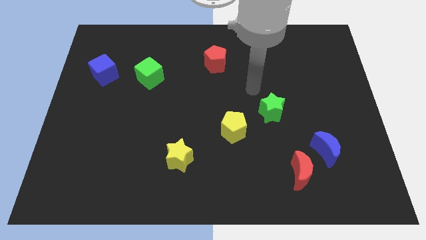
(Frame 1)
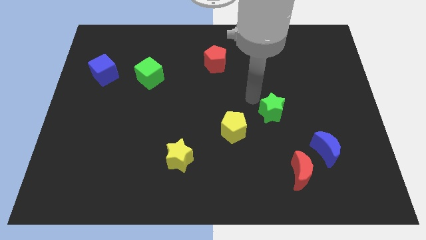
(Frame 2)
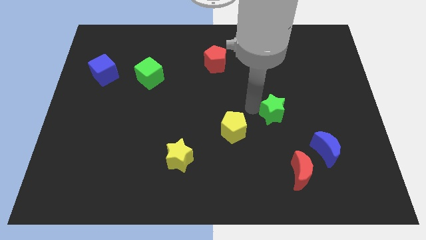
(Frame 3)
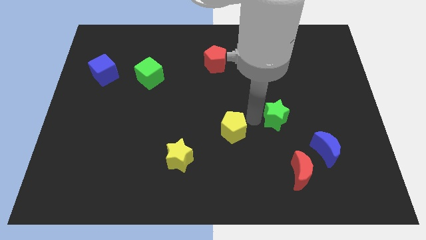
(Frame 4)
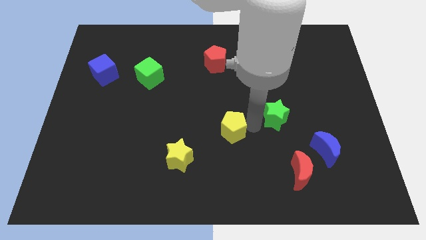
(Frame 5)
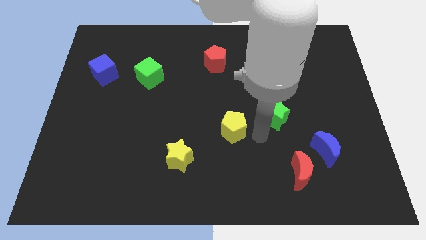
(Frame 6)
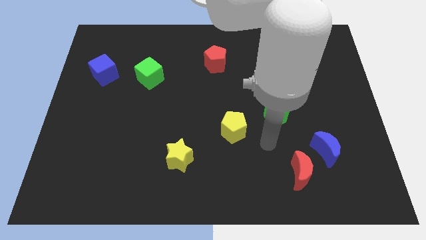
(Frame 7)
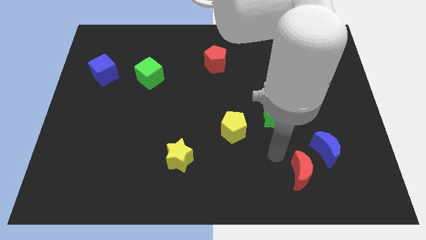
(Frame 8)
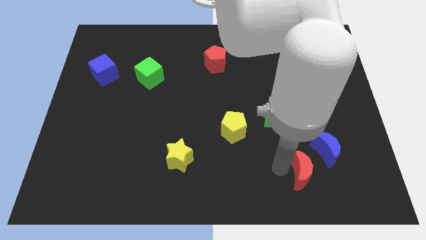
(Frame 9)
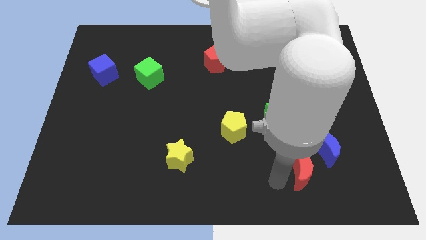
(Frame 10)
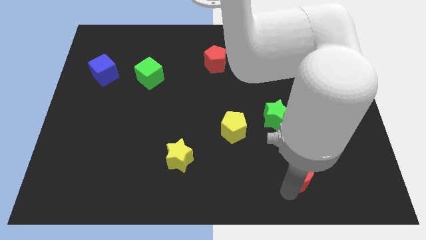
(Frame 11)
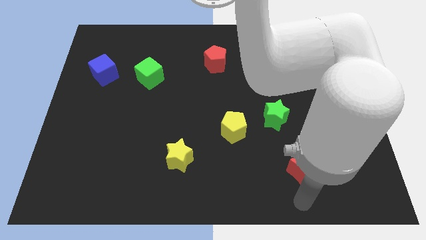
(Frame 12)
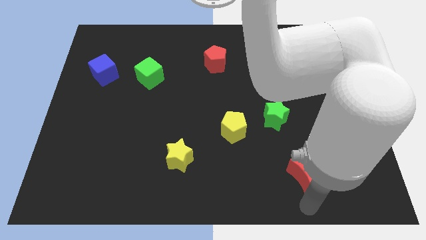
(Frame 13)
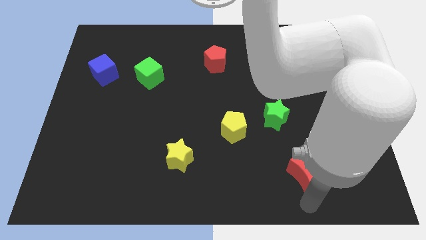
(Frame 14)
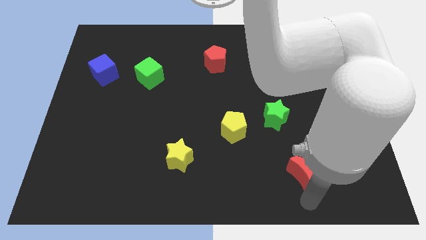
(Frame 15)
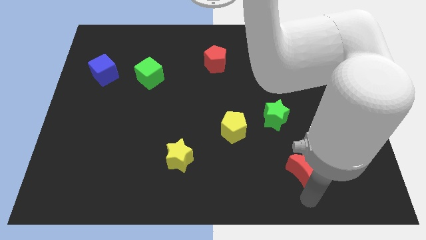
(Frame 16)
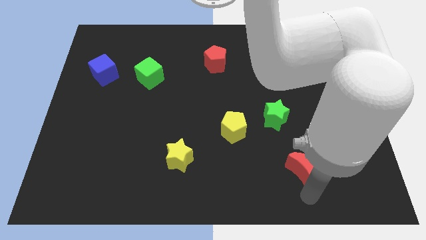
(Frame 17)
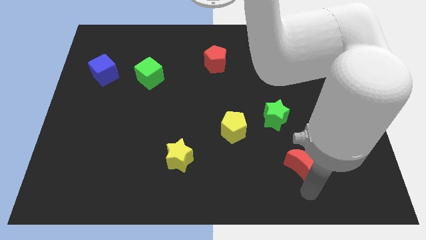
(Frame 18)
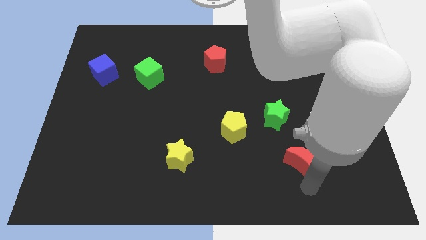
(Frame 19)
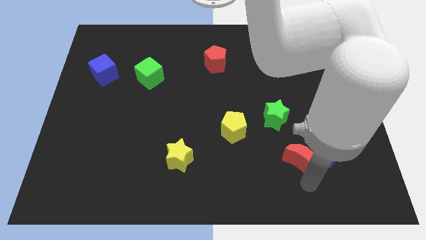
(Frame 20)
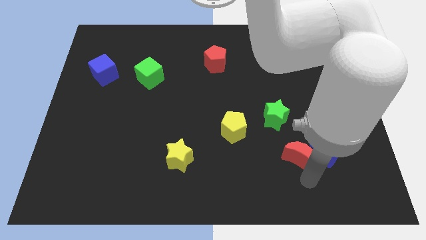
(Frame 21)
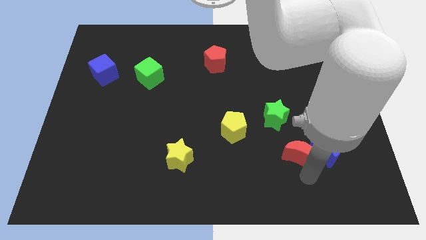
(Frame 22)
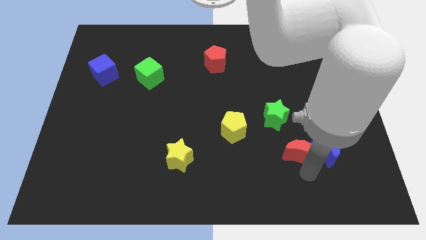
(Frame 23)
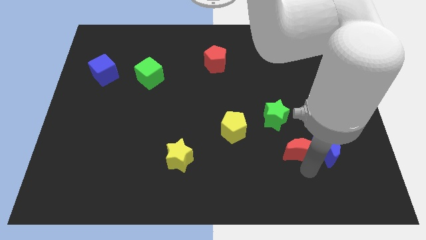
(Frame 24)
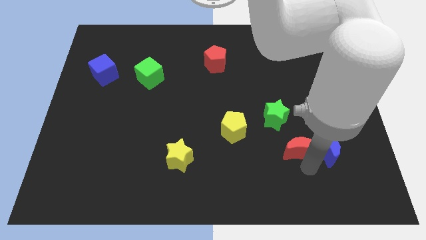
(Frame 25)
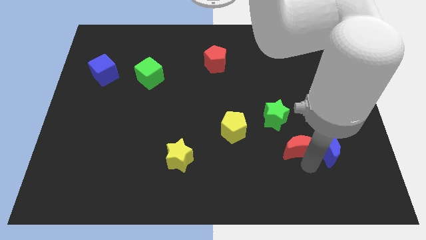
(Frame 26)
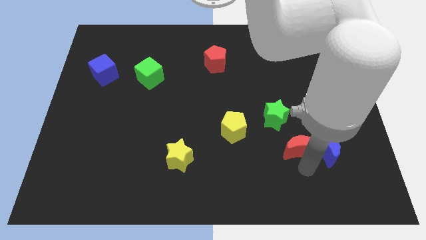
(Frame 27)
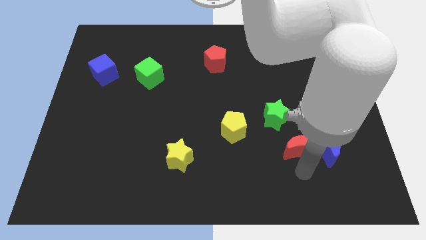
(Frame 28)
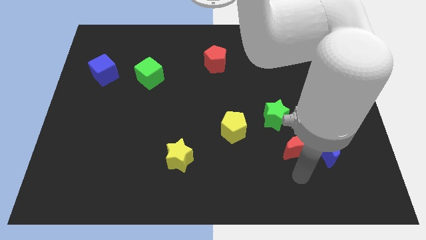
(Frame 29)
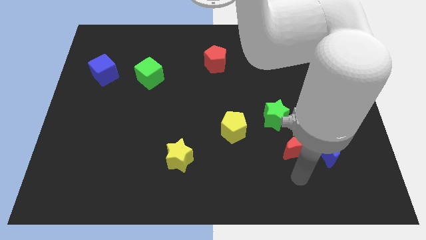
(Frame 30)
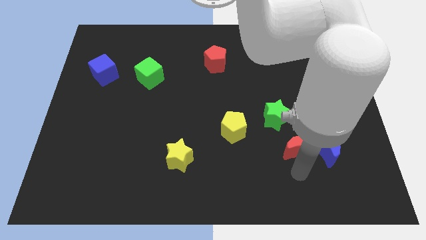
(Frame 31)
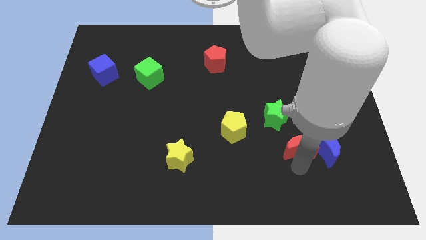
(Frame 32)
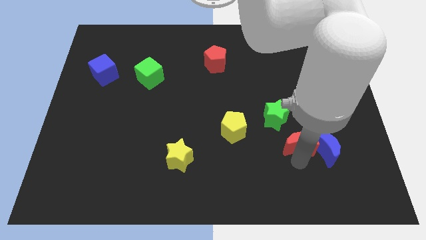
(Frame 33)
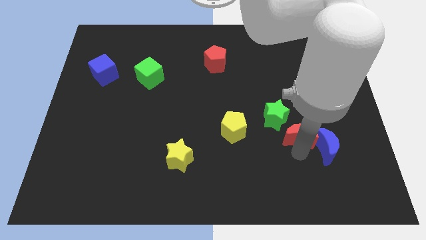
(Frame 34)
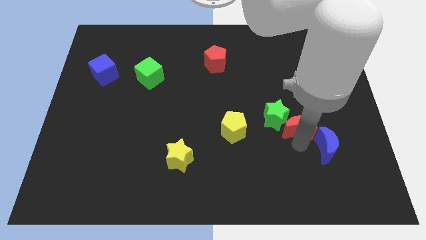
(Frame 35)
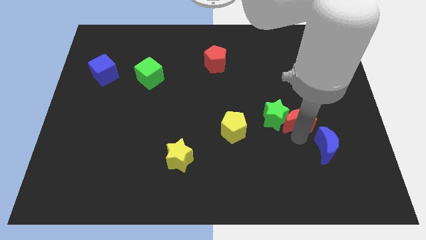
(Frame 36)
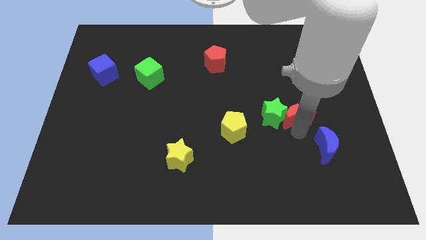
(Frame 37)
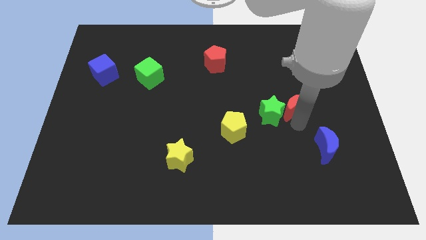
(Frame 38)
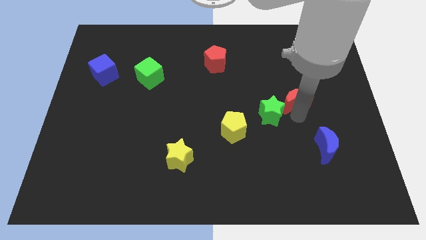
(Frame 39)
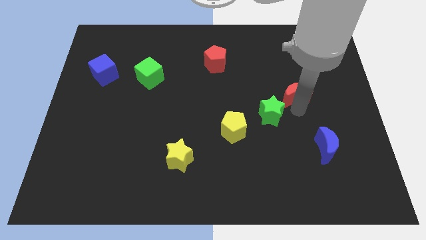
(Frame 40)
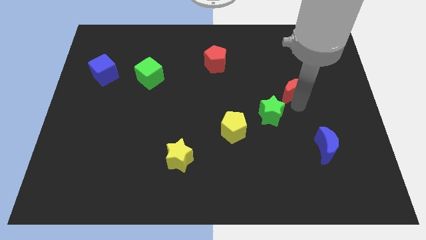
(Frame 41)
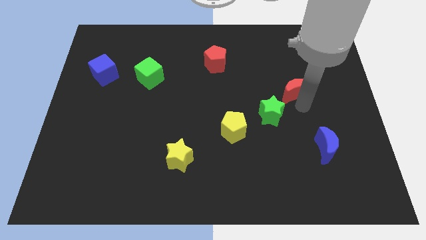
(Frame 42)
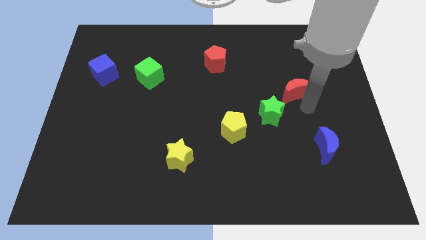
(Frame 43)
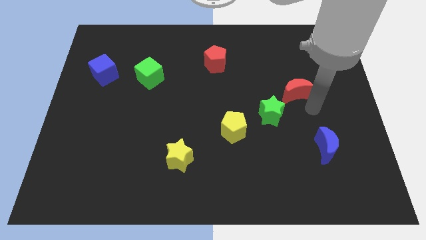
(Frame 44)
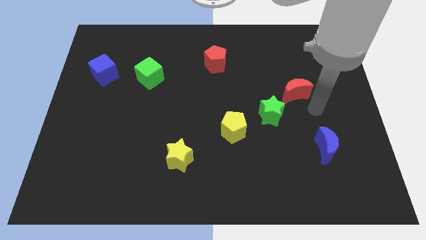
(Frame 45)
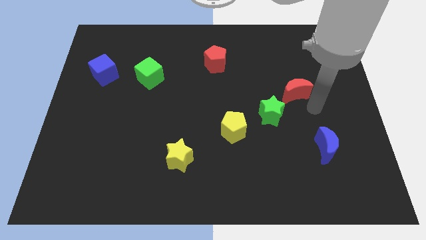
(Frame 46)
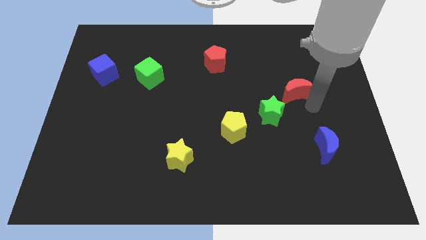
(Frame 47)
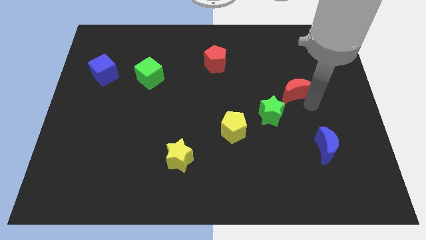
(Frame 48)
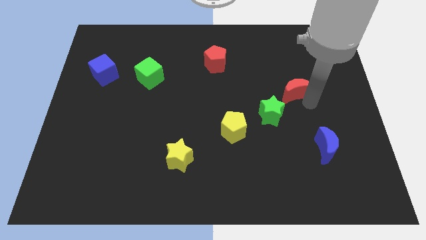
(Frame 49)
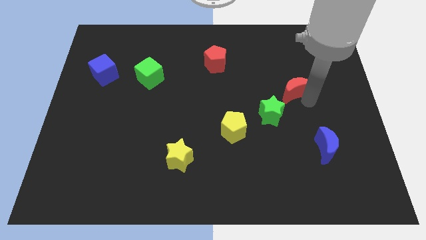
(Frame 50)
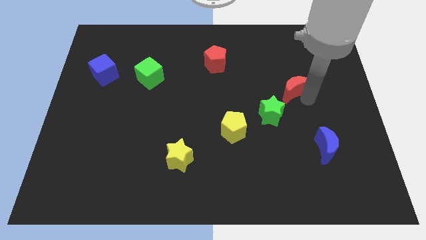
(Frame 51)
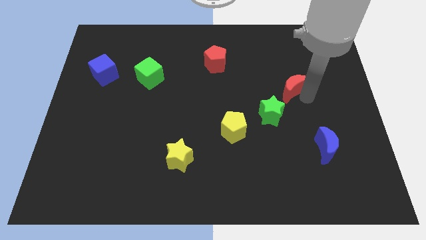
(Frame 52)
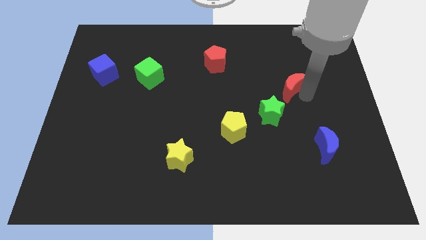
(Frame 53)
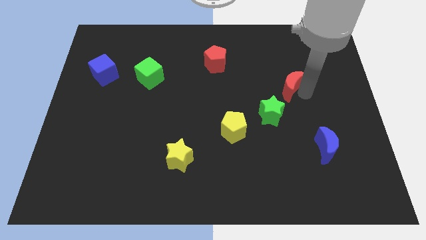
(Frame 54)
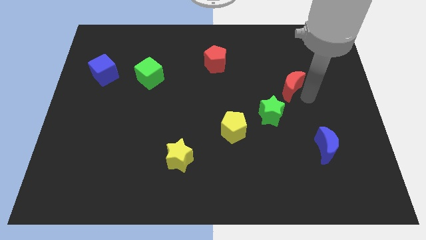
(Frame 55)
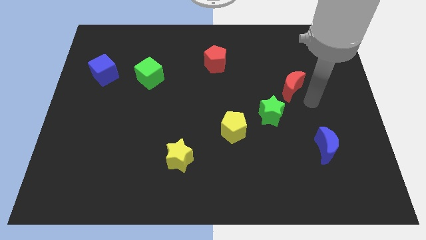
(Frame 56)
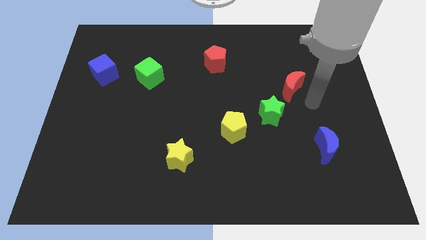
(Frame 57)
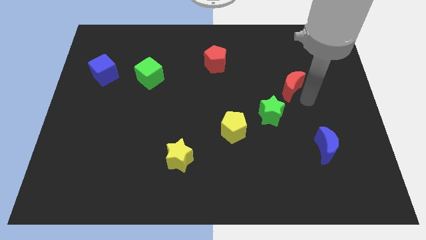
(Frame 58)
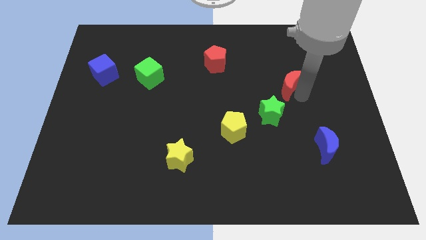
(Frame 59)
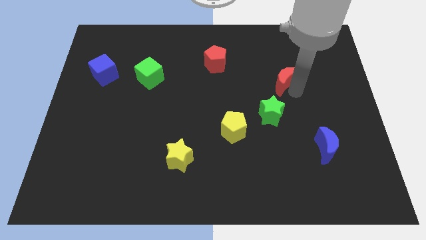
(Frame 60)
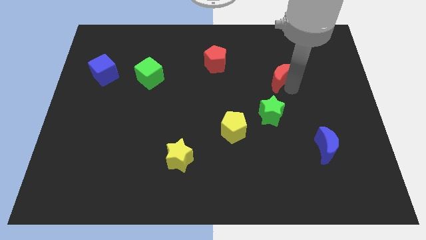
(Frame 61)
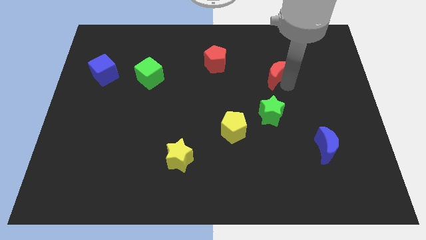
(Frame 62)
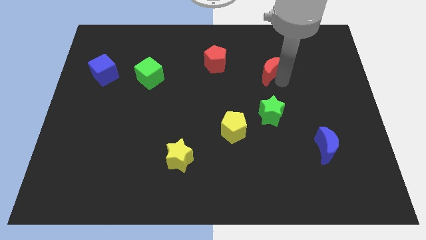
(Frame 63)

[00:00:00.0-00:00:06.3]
move the red moon right of the red pentagon

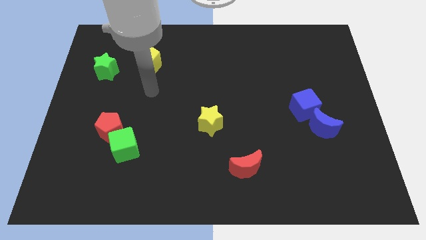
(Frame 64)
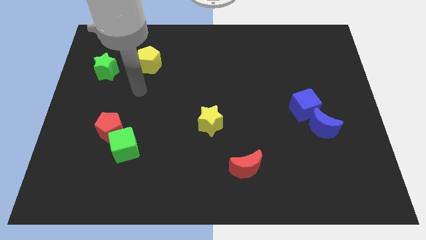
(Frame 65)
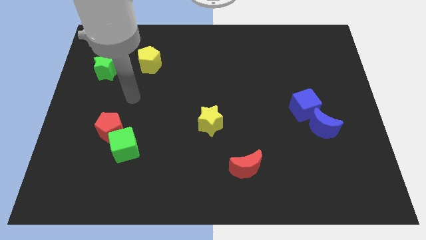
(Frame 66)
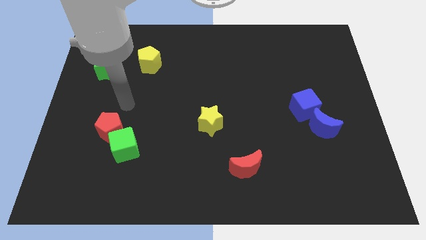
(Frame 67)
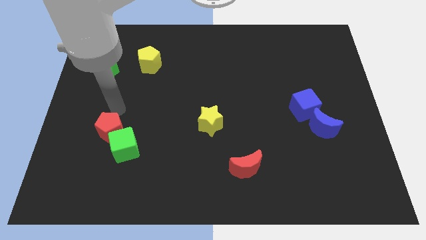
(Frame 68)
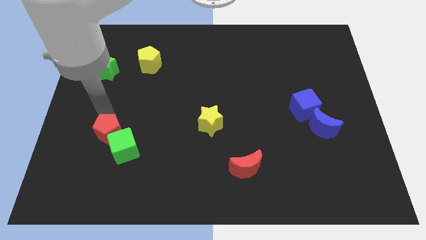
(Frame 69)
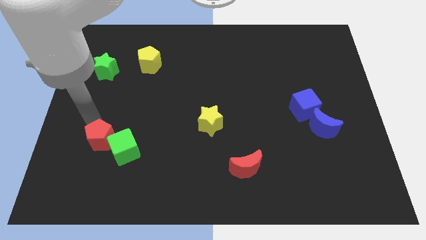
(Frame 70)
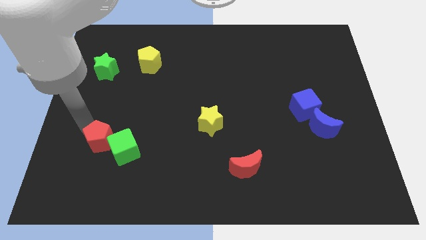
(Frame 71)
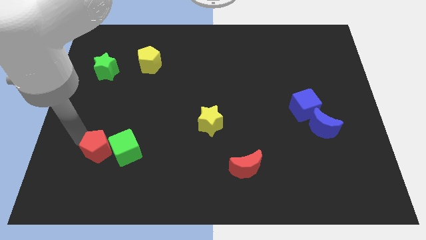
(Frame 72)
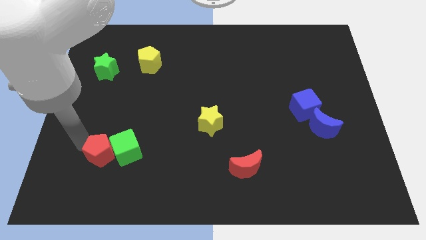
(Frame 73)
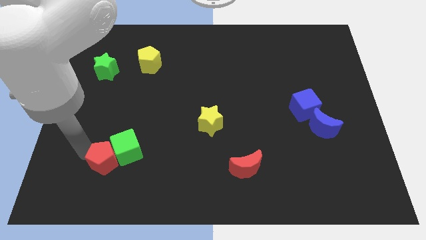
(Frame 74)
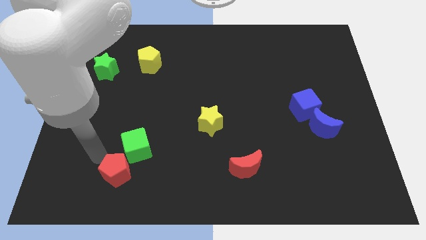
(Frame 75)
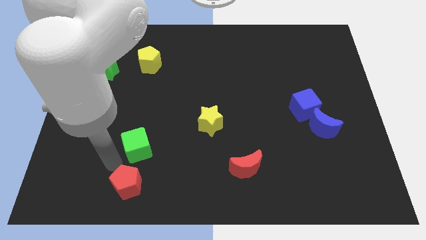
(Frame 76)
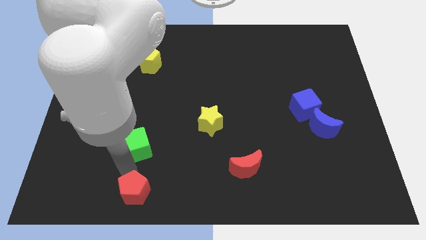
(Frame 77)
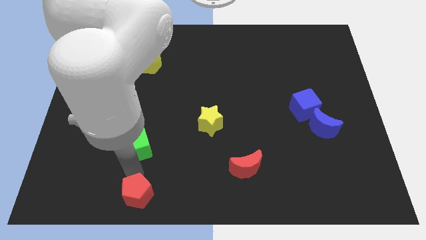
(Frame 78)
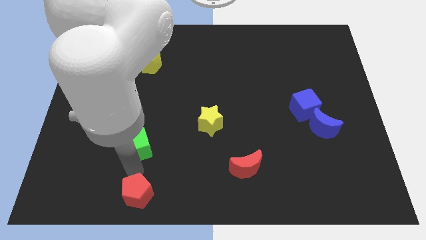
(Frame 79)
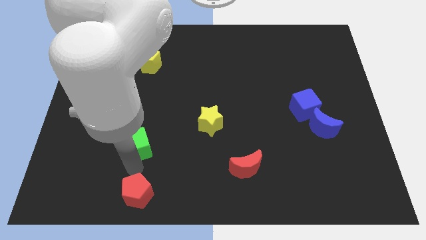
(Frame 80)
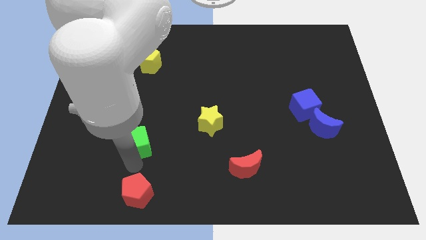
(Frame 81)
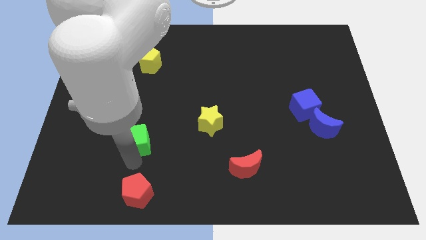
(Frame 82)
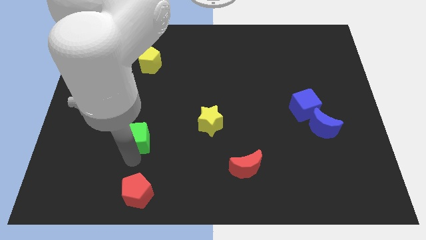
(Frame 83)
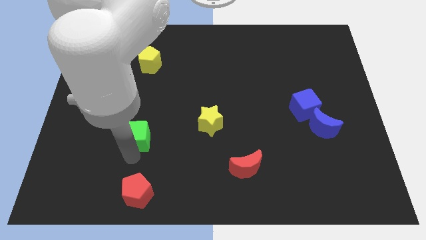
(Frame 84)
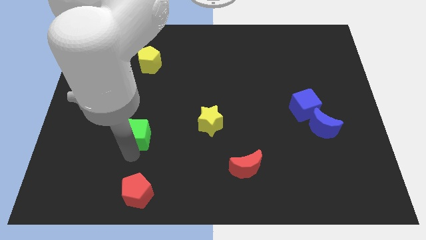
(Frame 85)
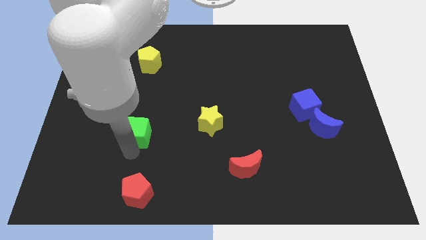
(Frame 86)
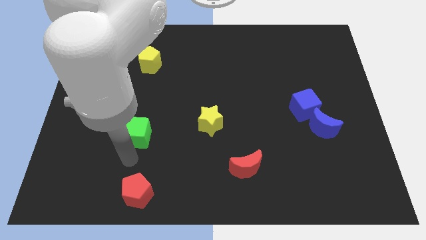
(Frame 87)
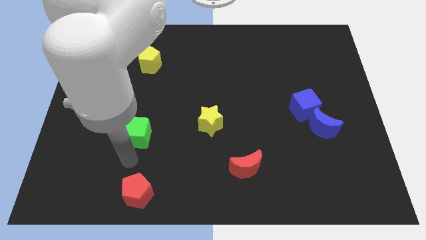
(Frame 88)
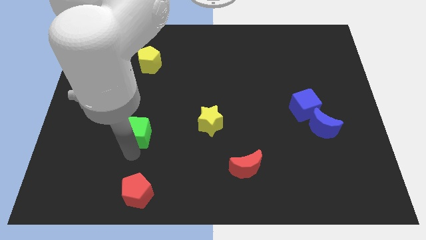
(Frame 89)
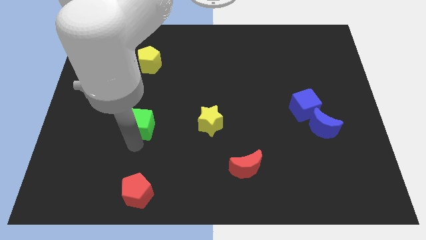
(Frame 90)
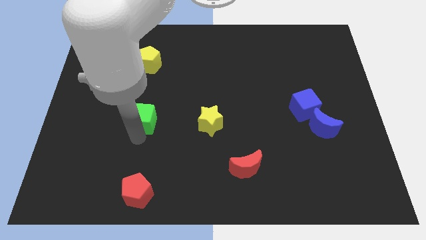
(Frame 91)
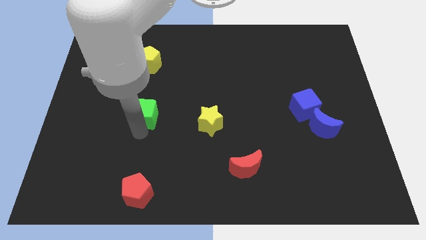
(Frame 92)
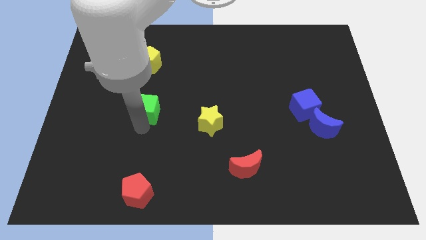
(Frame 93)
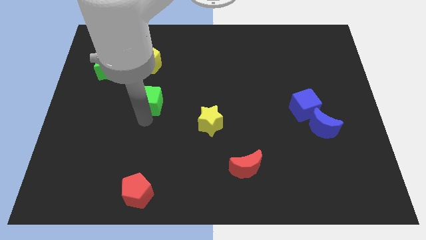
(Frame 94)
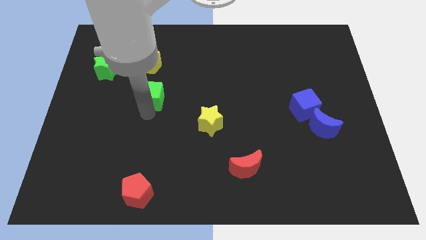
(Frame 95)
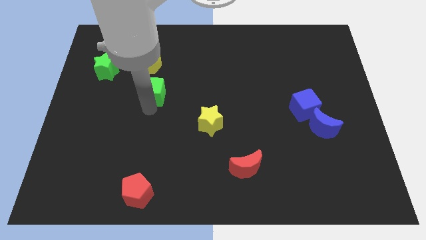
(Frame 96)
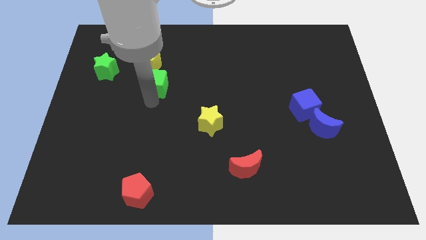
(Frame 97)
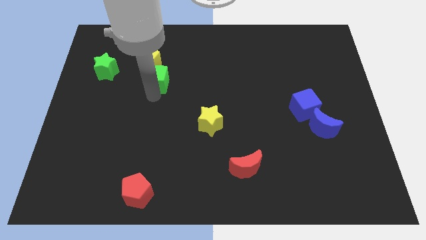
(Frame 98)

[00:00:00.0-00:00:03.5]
move the green cube to the right of the green star
